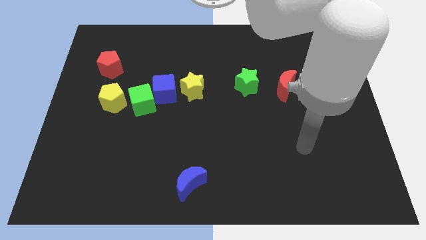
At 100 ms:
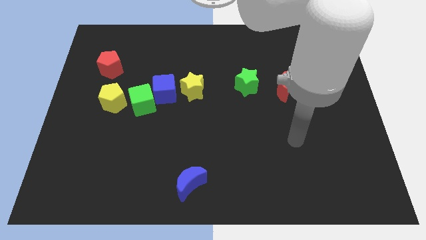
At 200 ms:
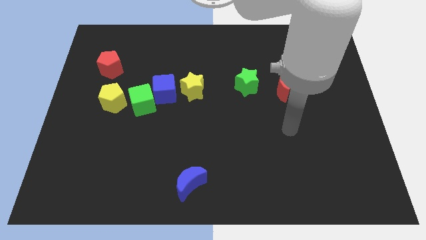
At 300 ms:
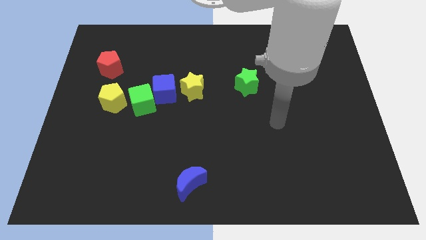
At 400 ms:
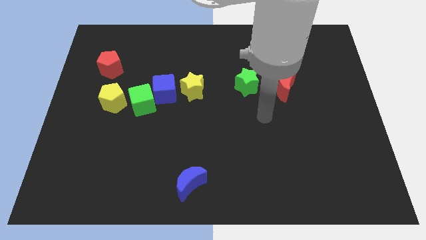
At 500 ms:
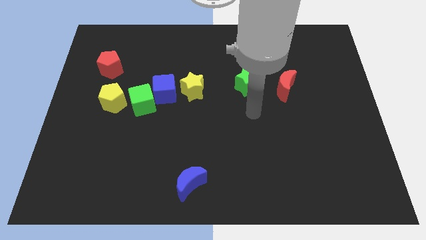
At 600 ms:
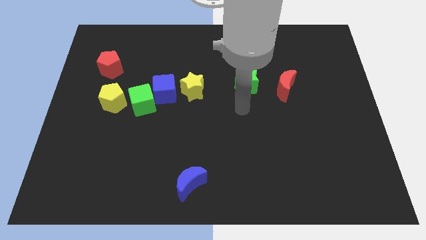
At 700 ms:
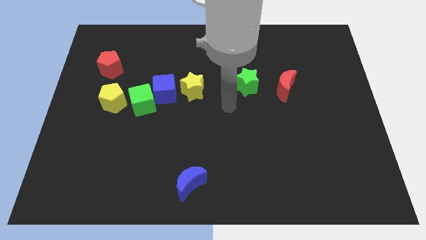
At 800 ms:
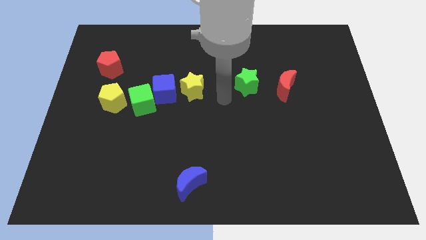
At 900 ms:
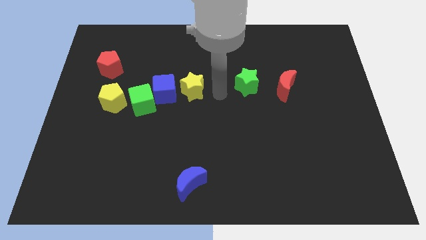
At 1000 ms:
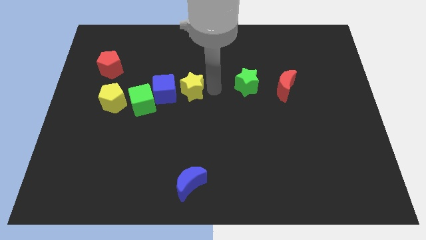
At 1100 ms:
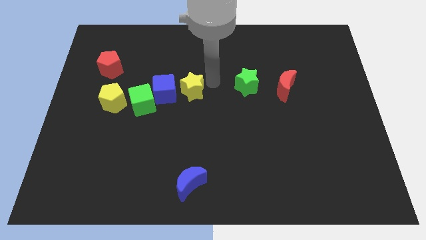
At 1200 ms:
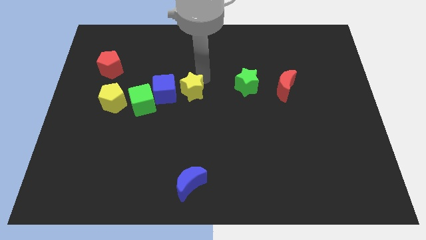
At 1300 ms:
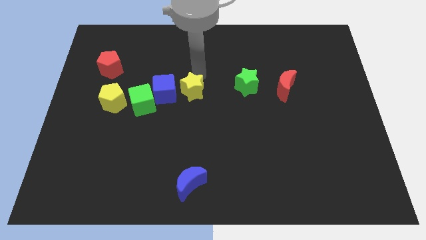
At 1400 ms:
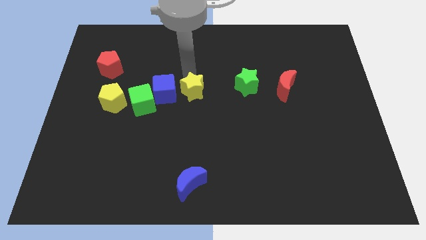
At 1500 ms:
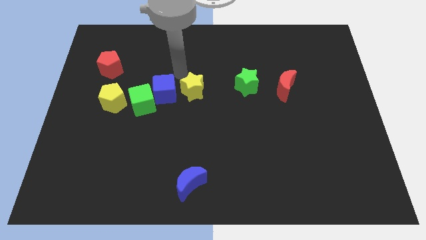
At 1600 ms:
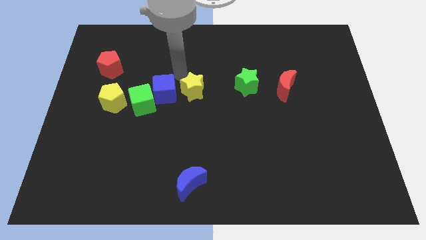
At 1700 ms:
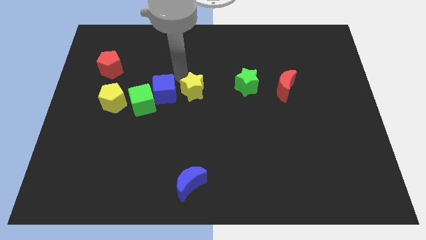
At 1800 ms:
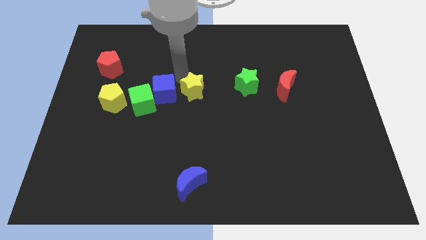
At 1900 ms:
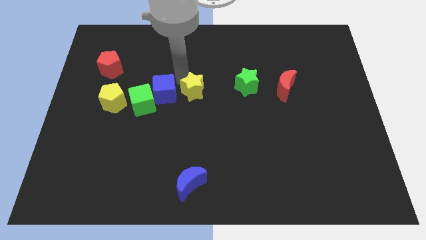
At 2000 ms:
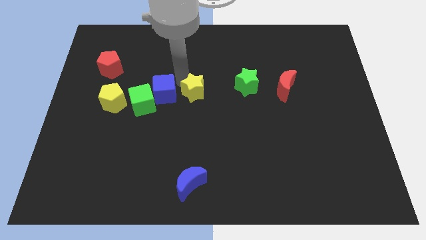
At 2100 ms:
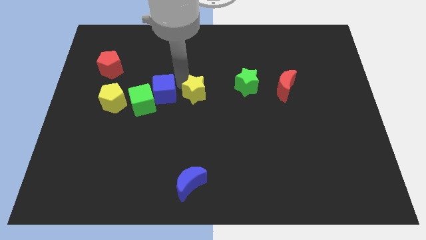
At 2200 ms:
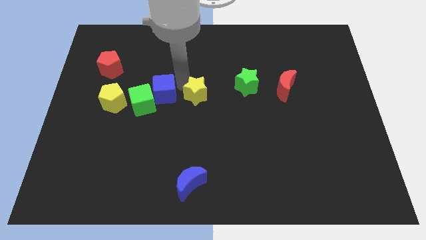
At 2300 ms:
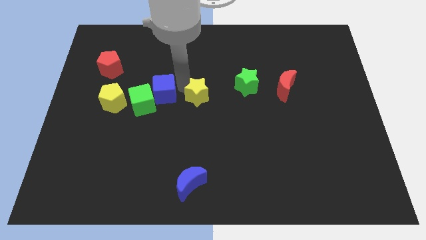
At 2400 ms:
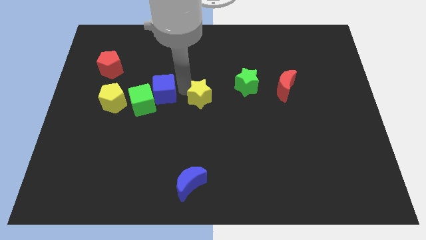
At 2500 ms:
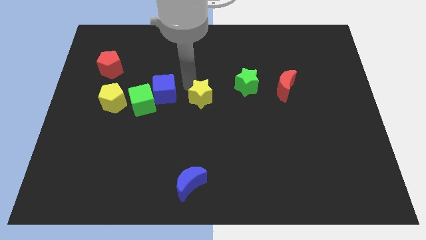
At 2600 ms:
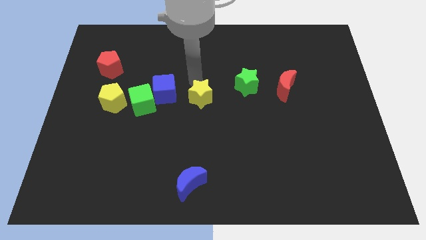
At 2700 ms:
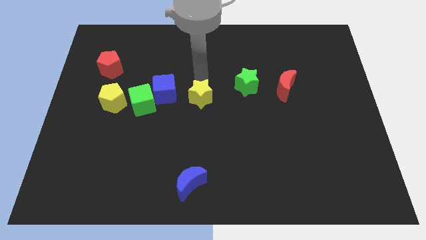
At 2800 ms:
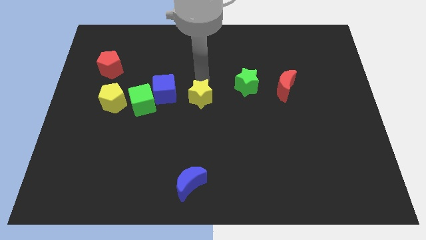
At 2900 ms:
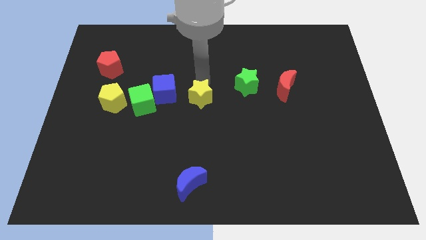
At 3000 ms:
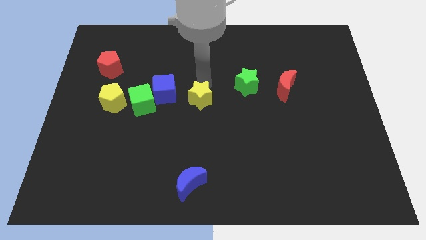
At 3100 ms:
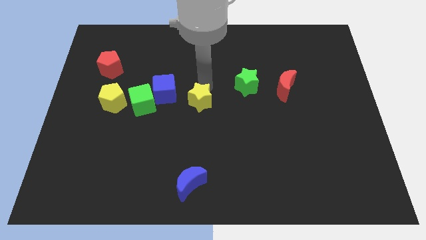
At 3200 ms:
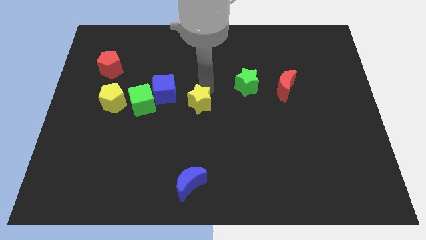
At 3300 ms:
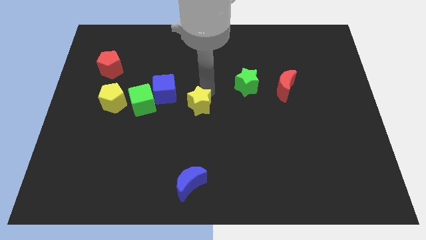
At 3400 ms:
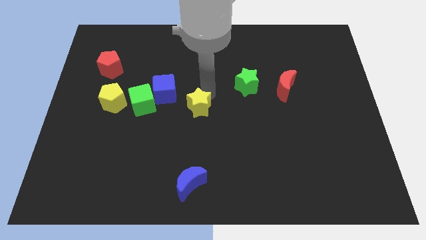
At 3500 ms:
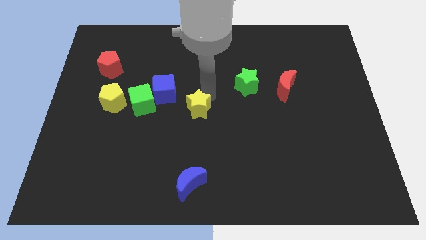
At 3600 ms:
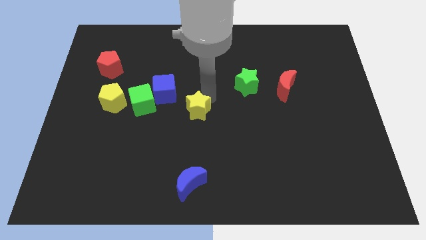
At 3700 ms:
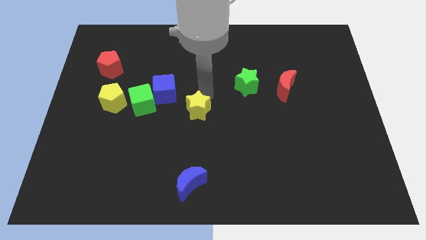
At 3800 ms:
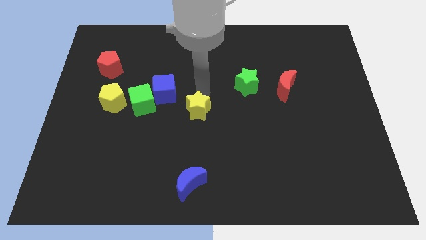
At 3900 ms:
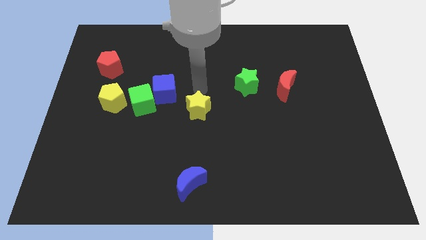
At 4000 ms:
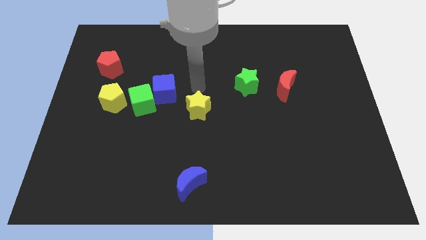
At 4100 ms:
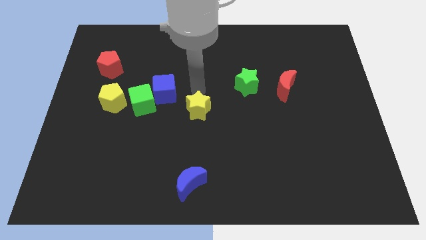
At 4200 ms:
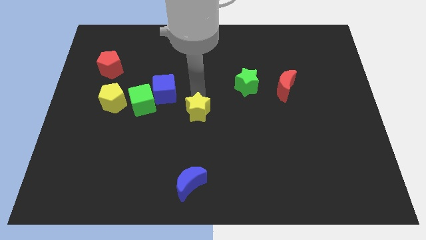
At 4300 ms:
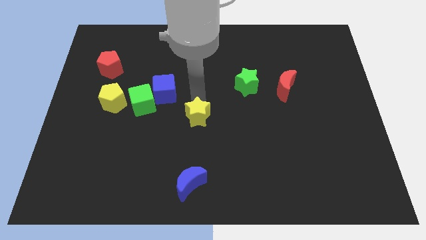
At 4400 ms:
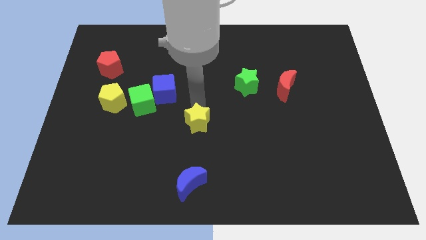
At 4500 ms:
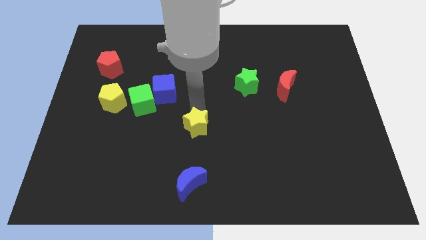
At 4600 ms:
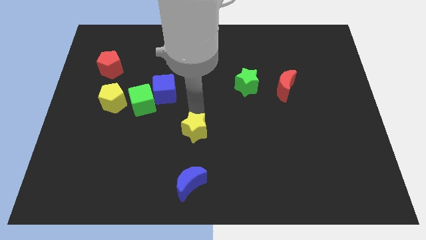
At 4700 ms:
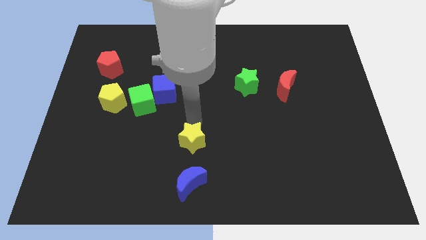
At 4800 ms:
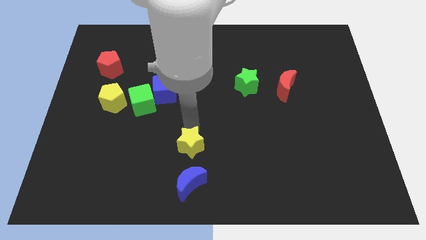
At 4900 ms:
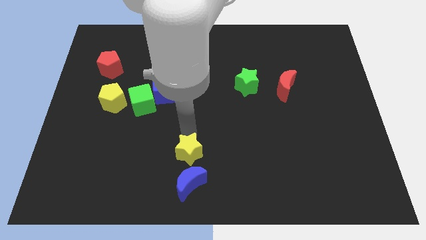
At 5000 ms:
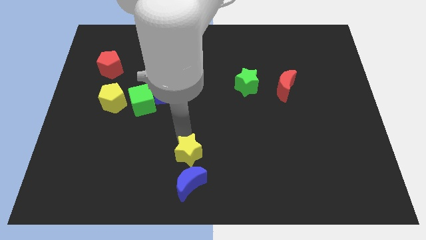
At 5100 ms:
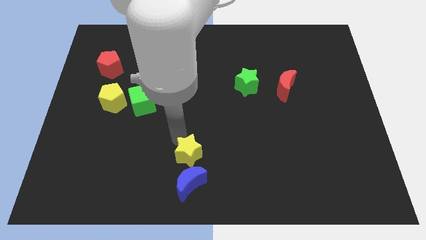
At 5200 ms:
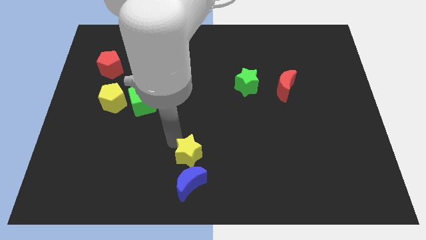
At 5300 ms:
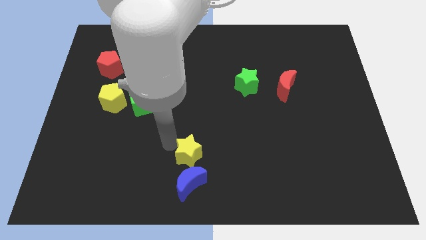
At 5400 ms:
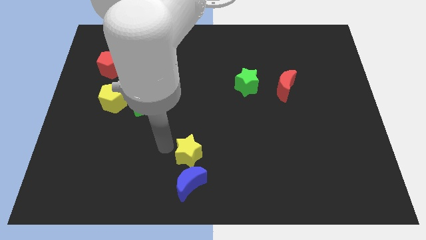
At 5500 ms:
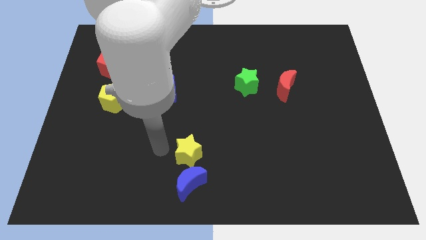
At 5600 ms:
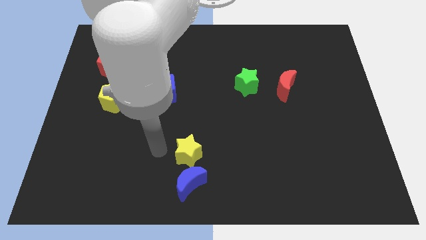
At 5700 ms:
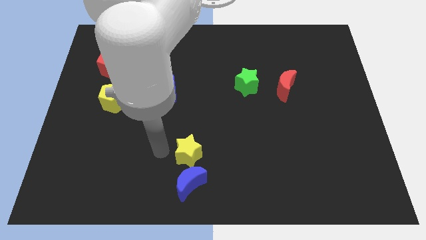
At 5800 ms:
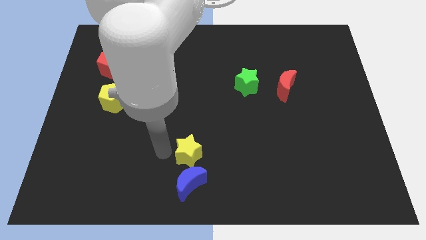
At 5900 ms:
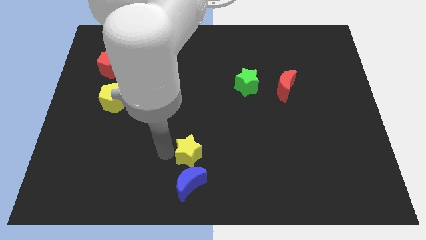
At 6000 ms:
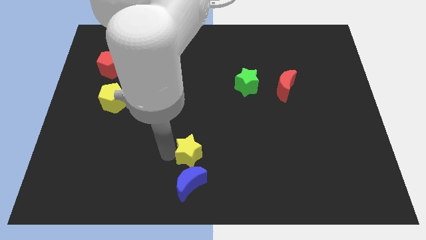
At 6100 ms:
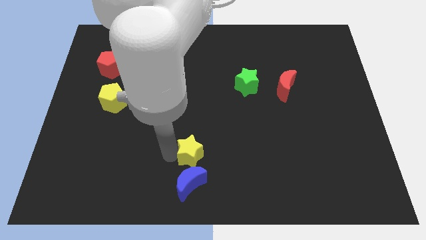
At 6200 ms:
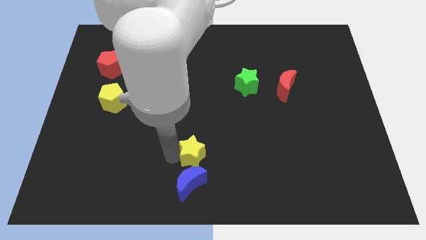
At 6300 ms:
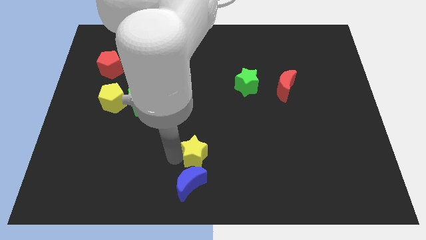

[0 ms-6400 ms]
move the yellow star to the bottom
